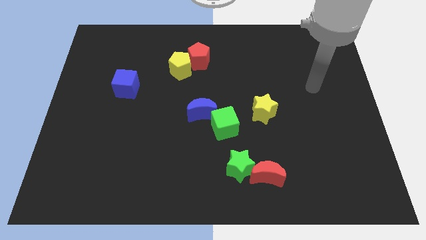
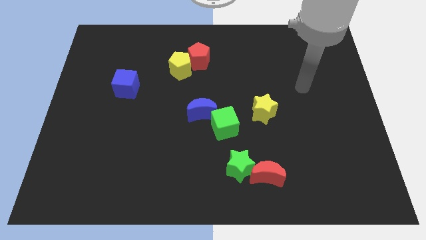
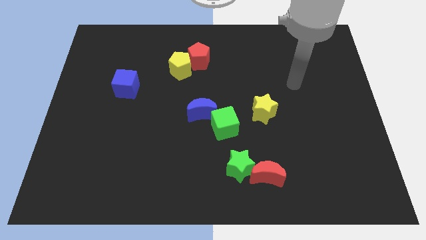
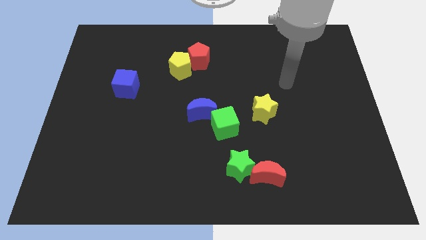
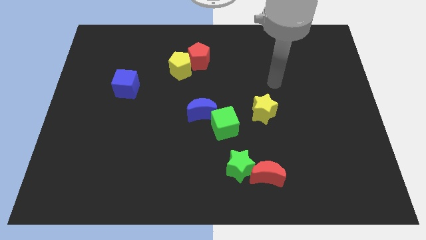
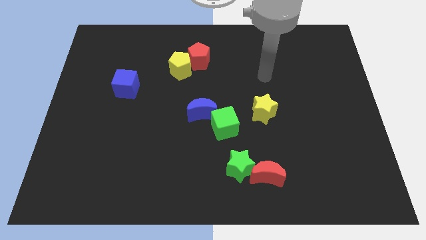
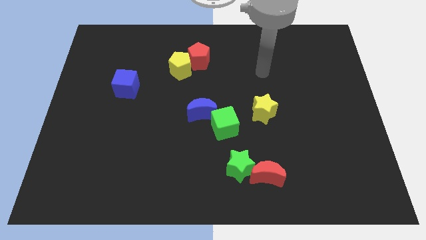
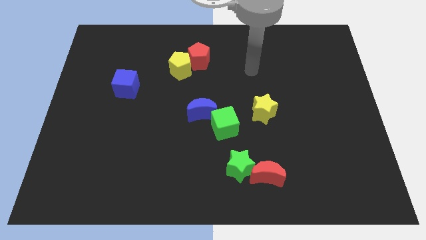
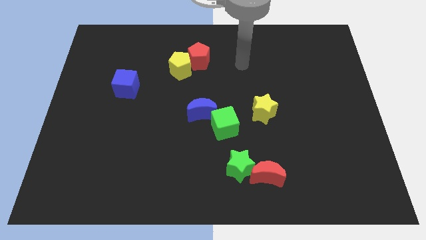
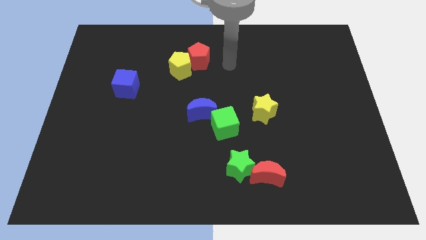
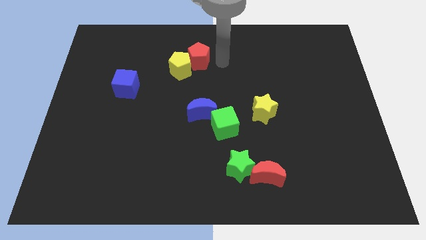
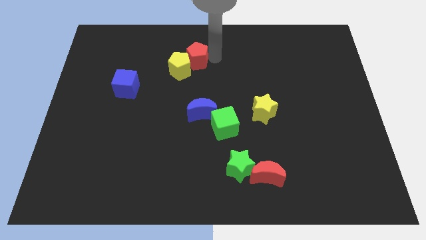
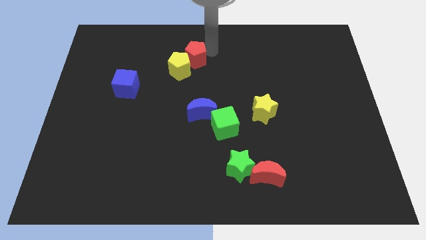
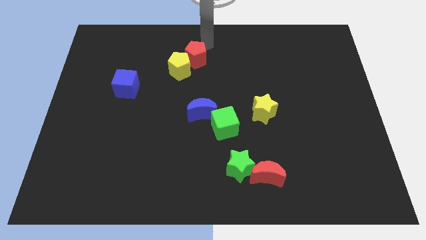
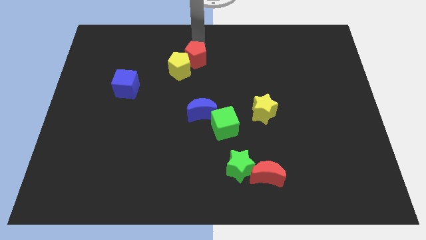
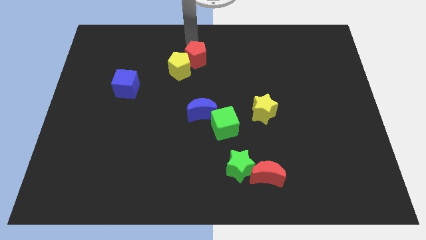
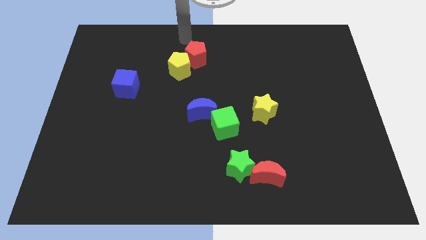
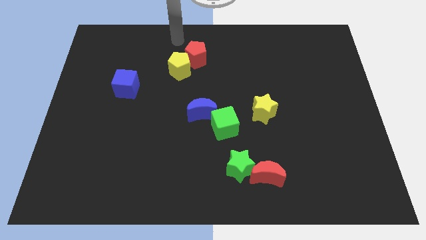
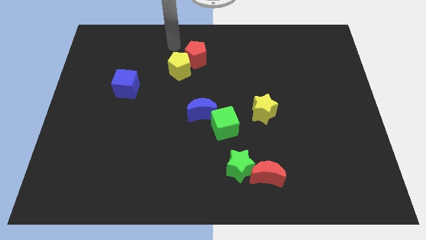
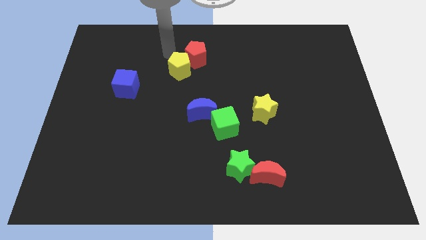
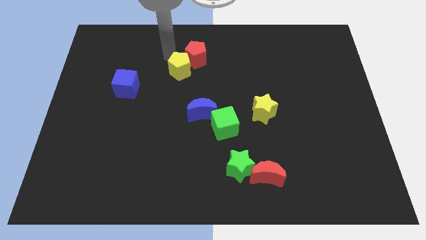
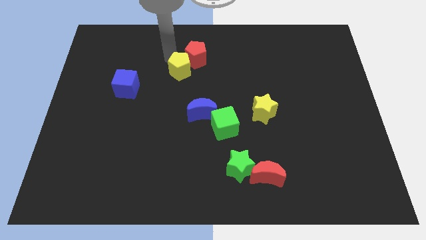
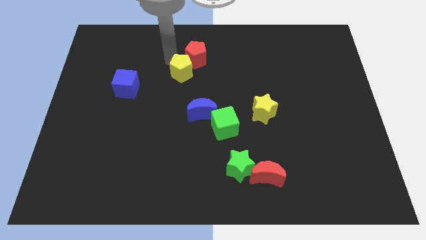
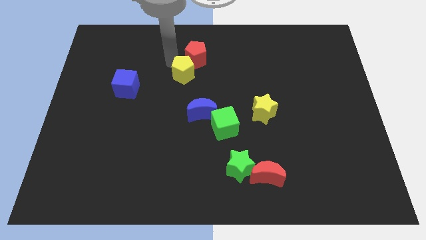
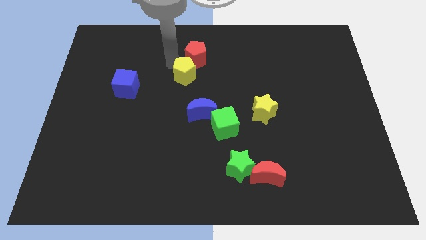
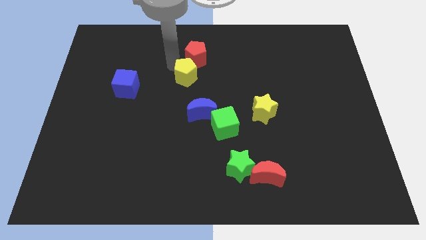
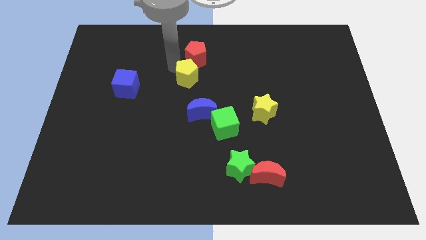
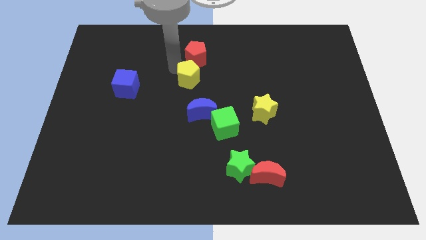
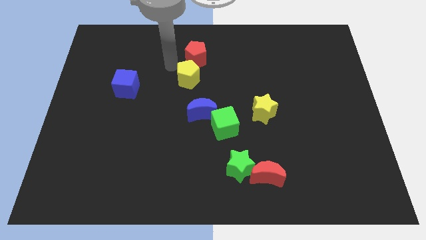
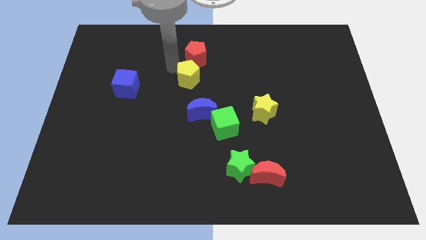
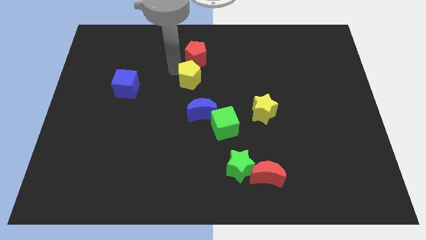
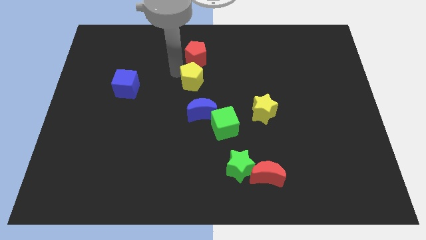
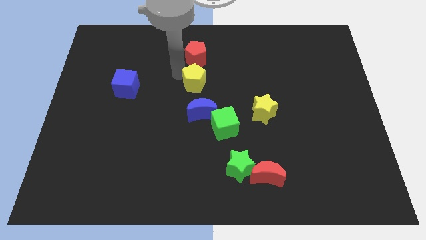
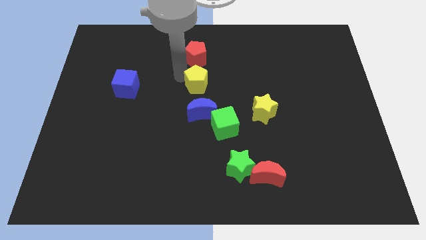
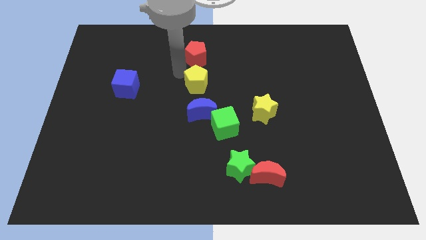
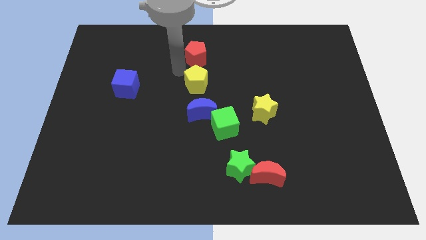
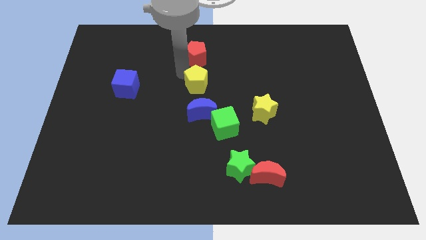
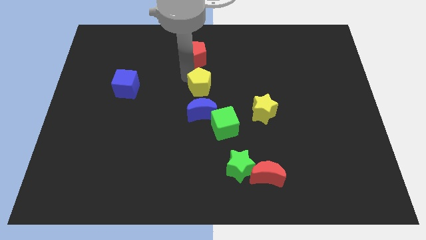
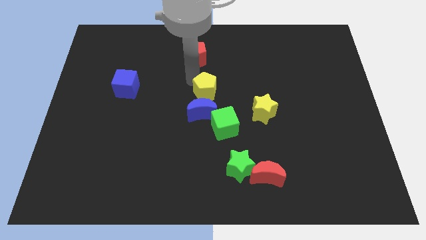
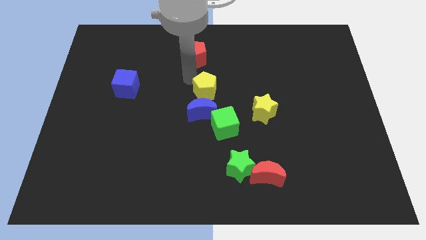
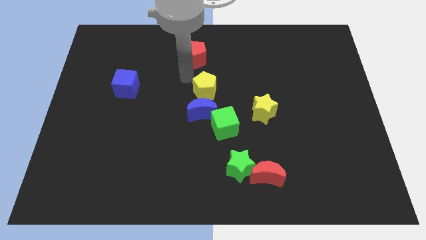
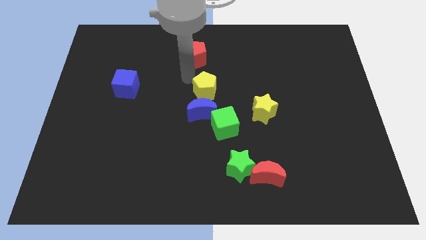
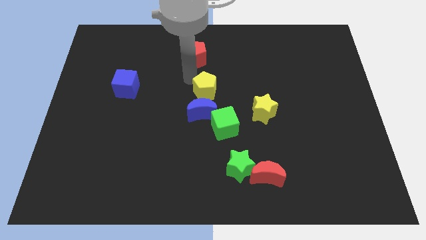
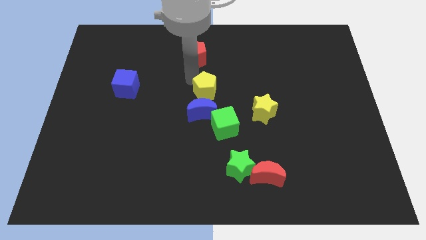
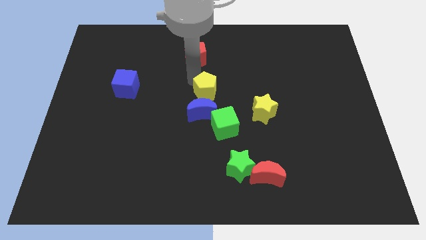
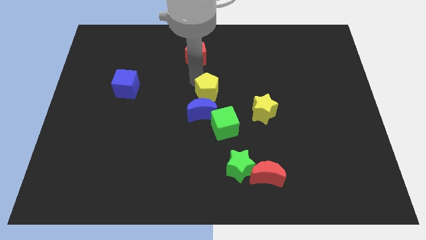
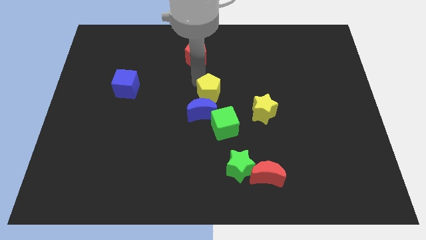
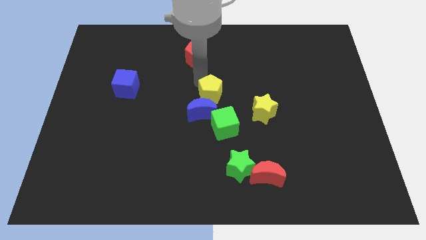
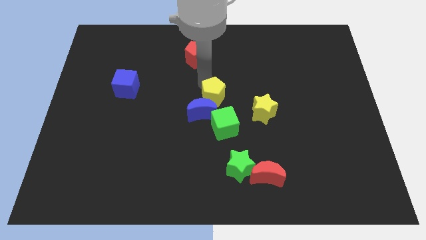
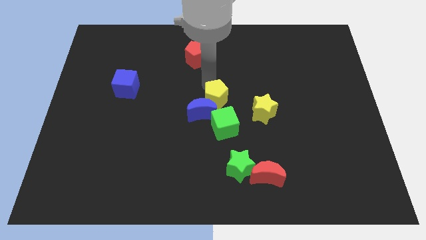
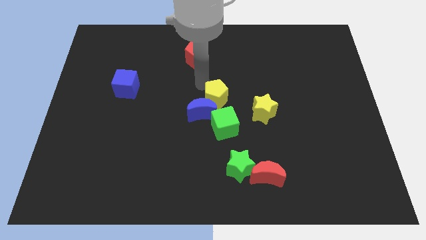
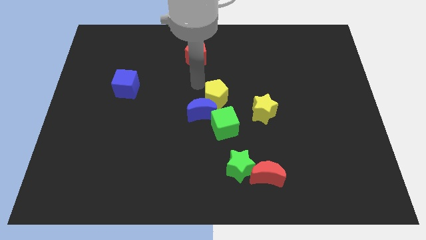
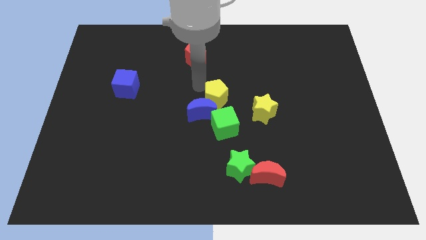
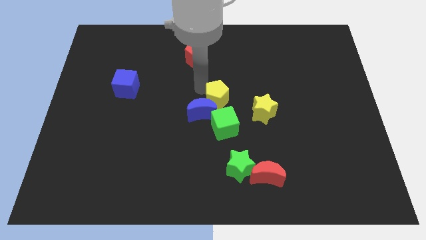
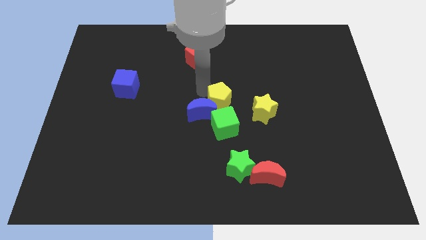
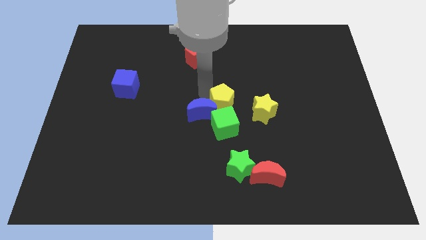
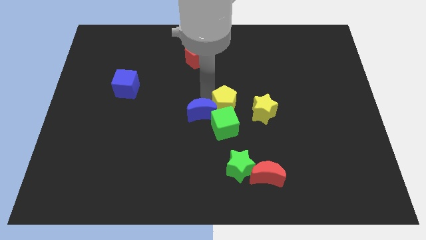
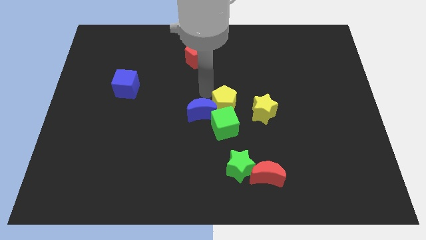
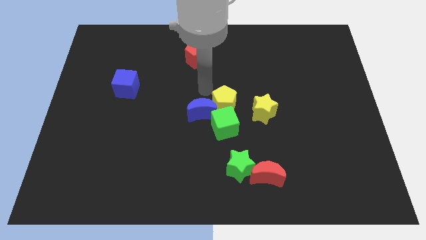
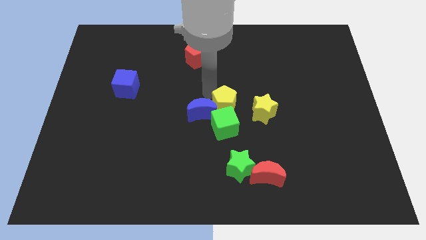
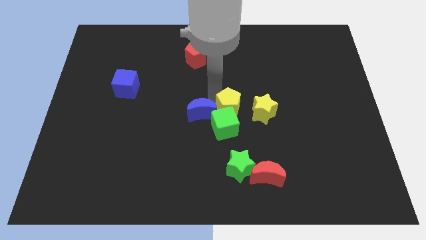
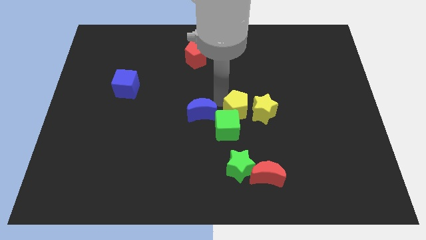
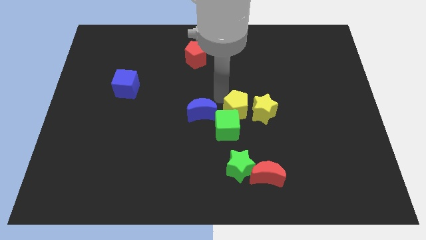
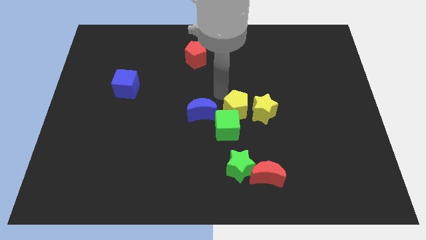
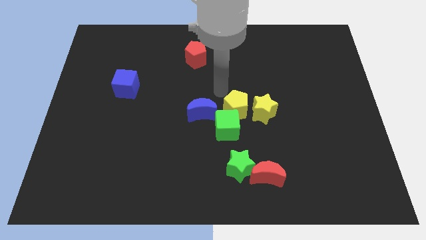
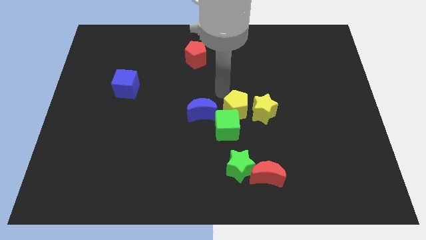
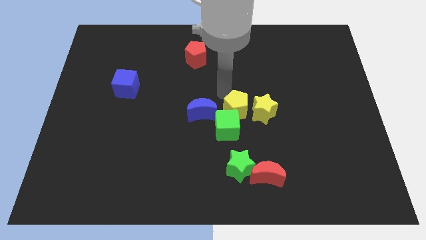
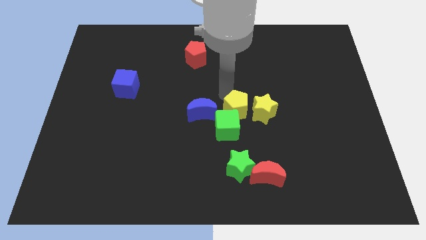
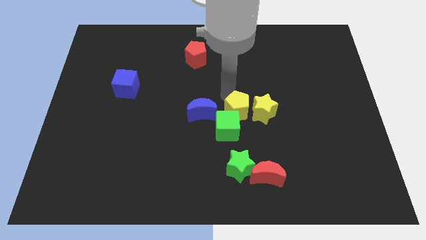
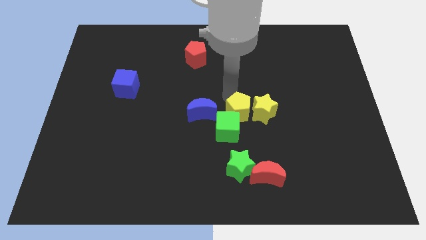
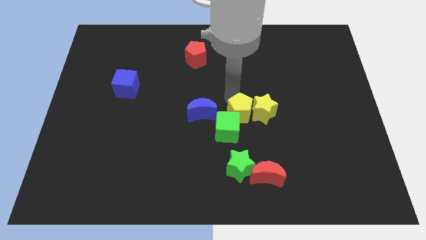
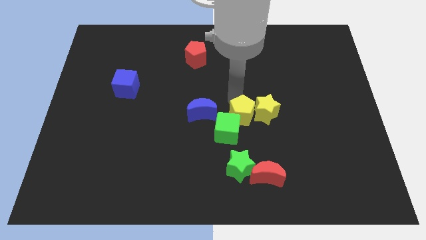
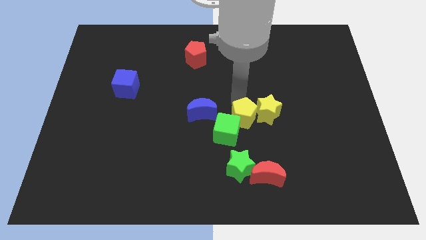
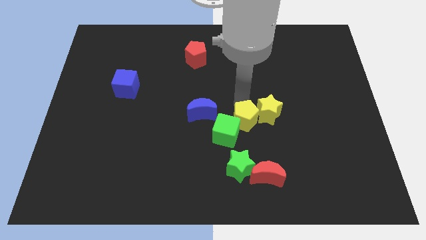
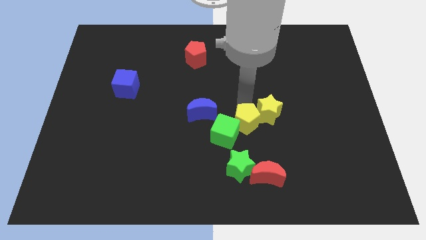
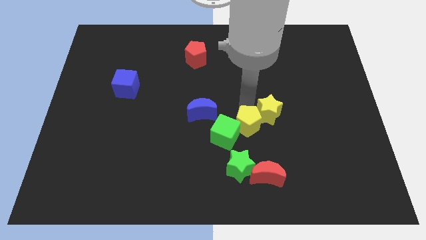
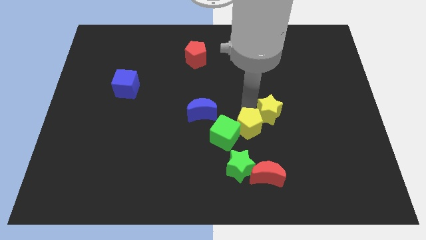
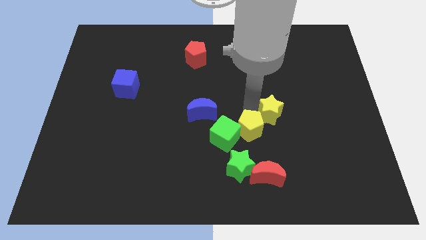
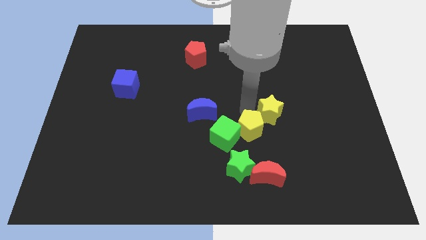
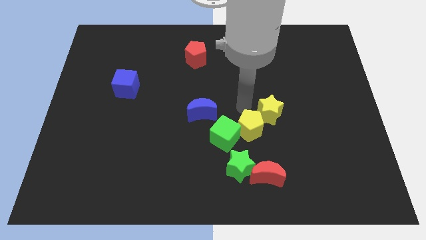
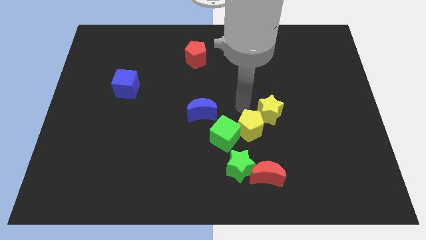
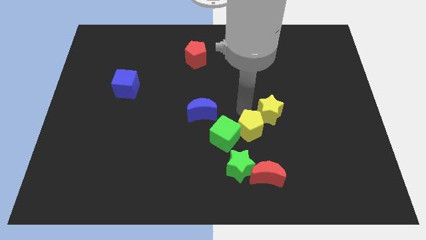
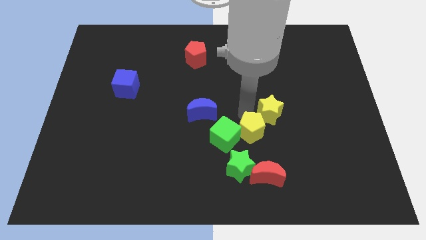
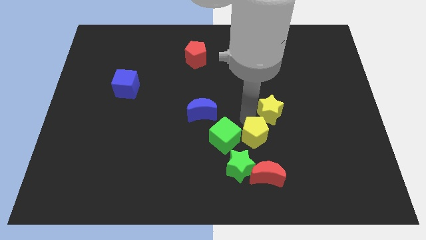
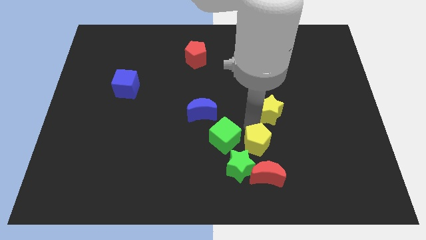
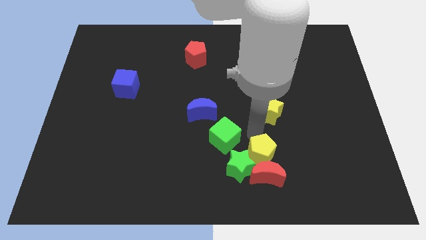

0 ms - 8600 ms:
put the yellow pentagon close to the red moon
